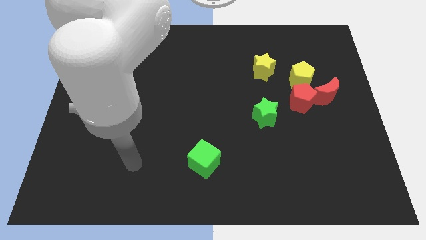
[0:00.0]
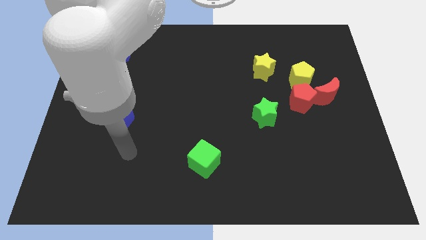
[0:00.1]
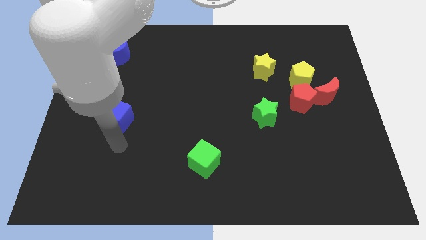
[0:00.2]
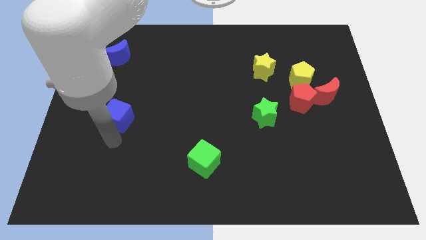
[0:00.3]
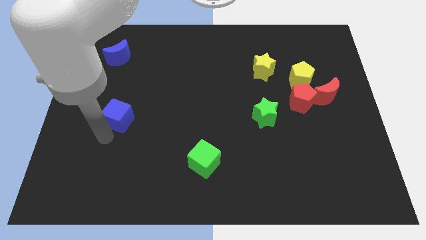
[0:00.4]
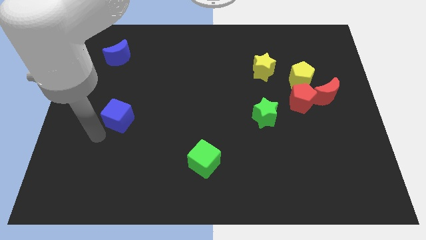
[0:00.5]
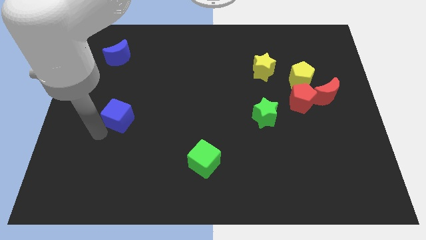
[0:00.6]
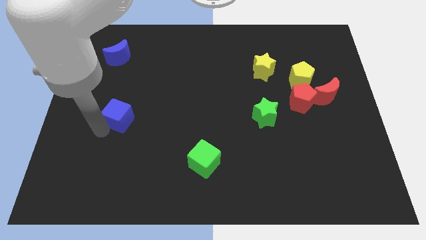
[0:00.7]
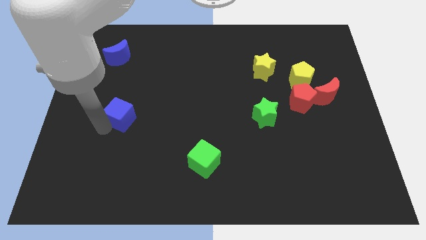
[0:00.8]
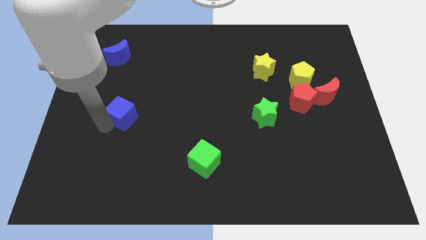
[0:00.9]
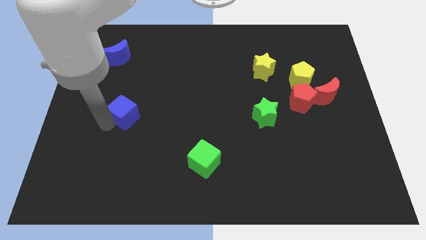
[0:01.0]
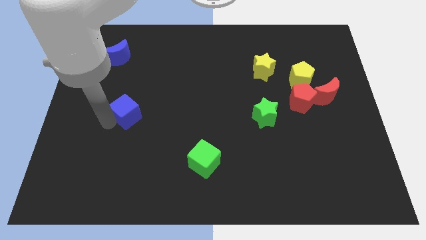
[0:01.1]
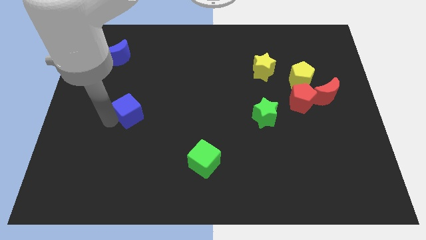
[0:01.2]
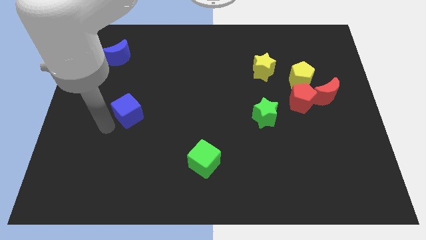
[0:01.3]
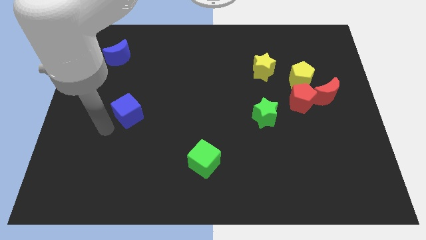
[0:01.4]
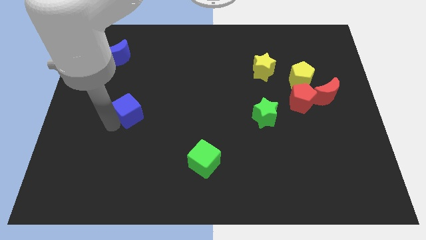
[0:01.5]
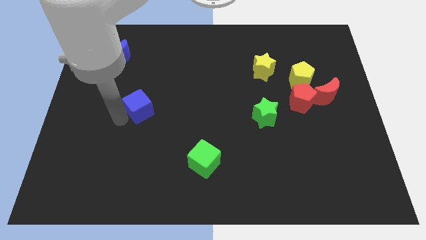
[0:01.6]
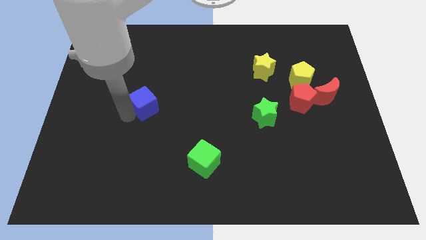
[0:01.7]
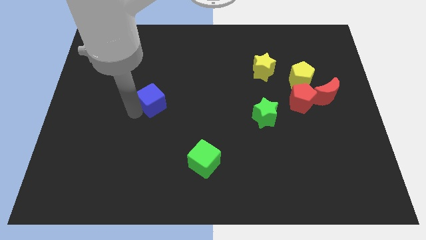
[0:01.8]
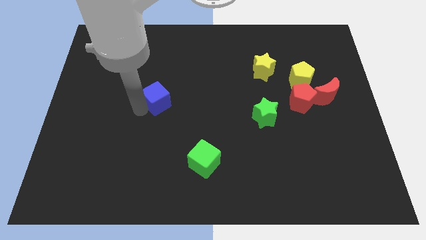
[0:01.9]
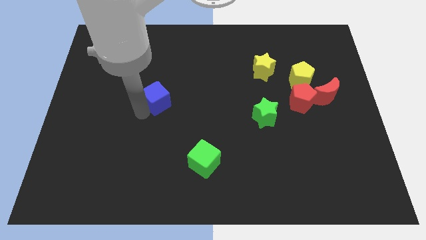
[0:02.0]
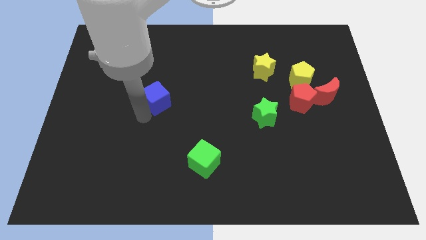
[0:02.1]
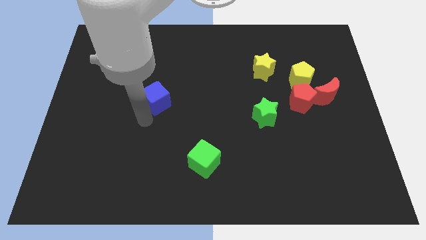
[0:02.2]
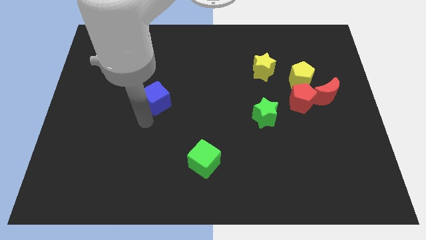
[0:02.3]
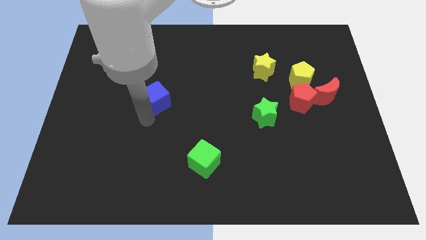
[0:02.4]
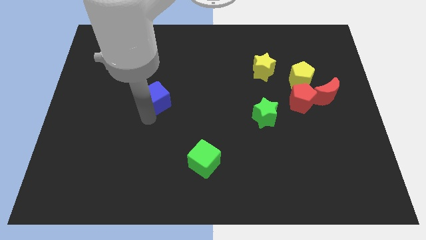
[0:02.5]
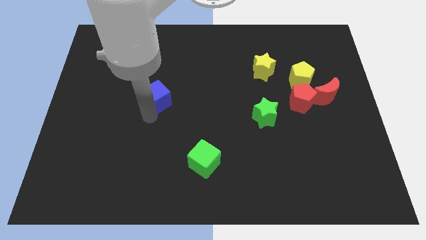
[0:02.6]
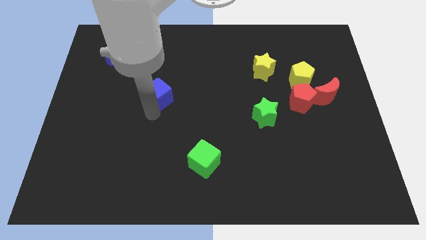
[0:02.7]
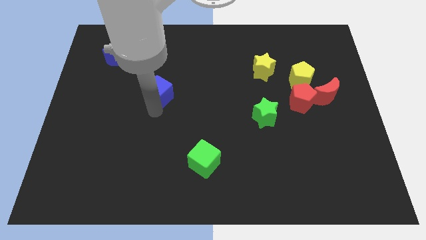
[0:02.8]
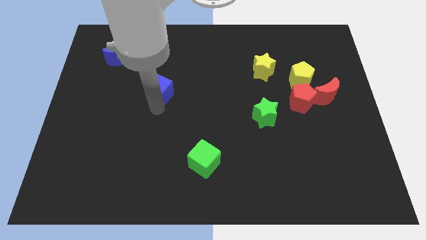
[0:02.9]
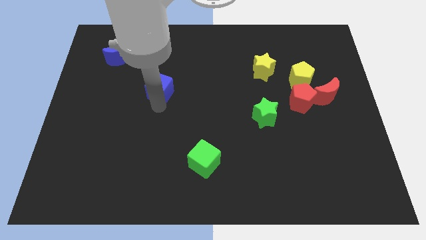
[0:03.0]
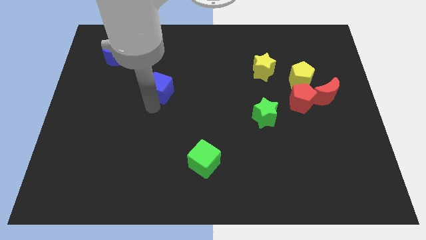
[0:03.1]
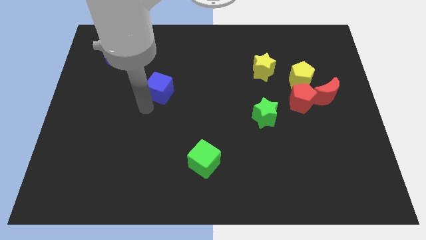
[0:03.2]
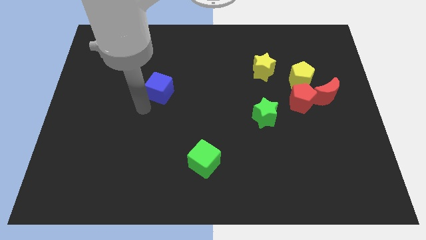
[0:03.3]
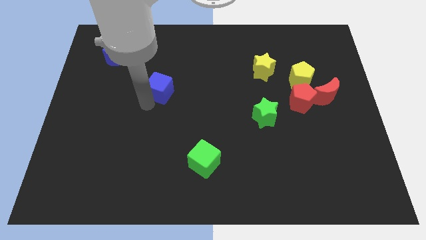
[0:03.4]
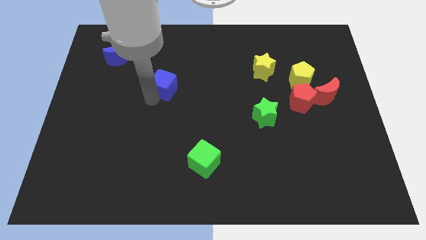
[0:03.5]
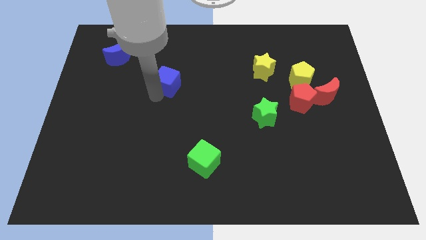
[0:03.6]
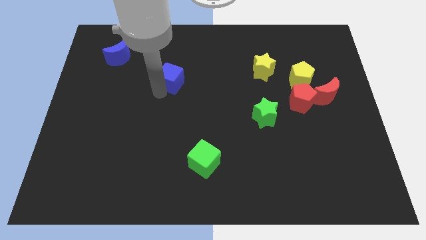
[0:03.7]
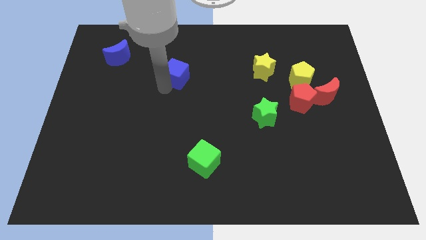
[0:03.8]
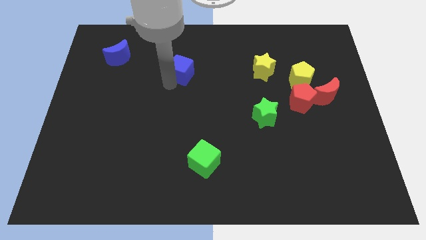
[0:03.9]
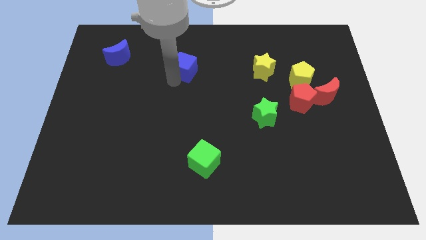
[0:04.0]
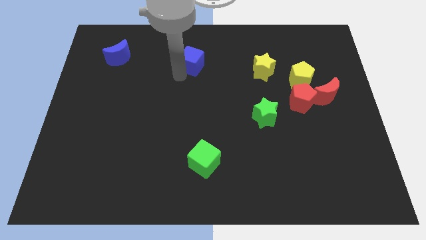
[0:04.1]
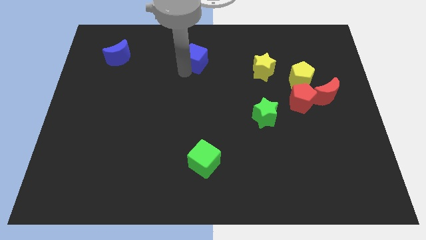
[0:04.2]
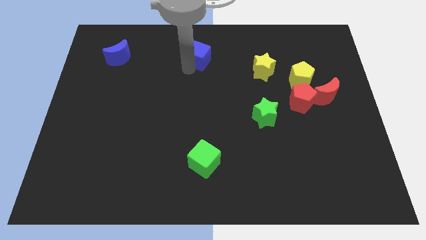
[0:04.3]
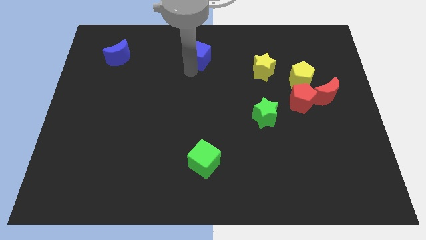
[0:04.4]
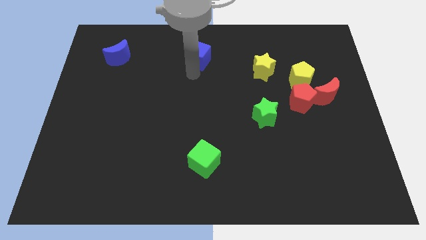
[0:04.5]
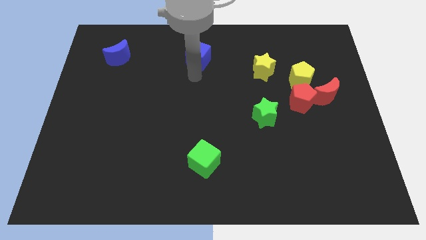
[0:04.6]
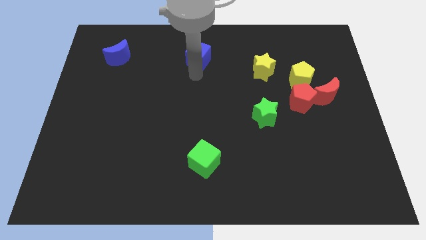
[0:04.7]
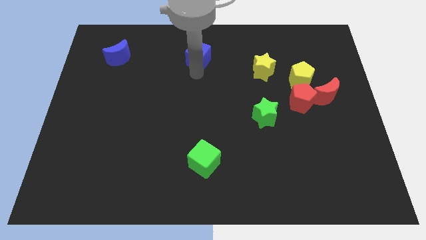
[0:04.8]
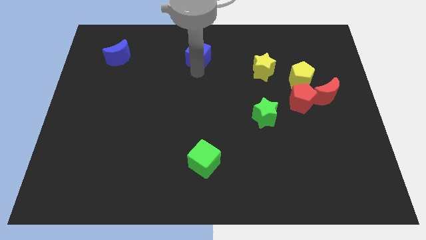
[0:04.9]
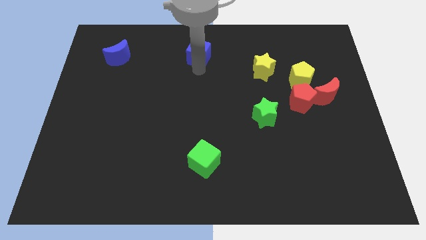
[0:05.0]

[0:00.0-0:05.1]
move the blue cube to the top side
